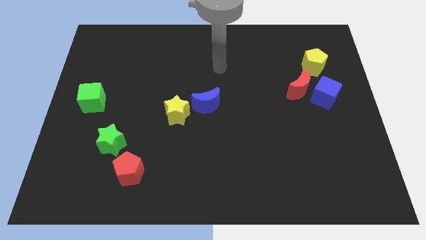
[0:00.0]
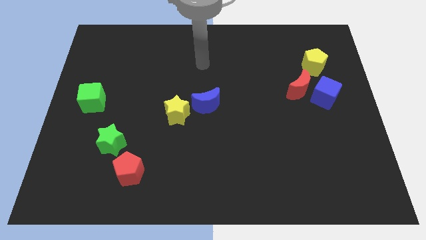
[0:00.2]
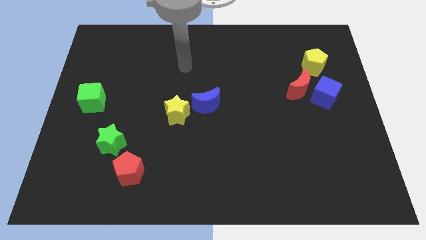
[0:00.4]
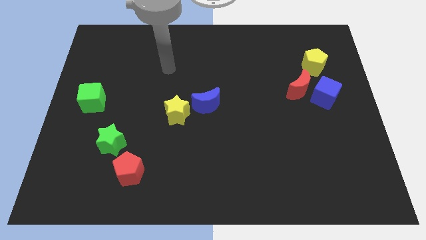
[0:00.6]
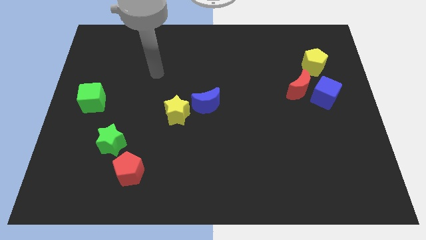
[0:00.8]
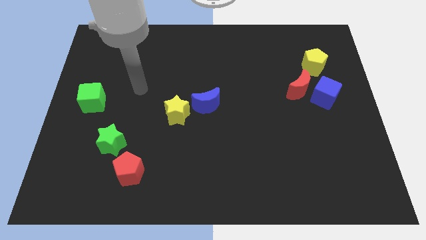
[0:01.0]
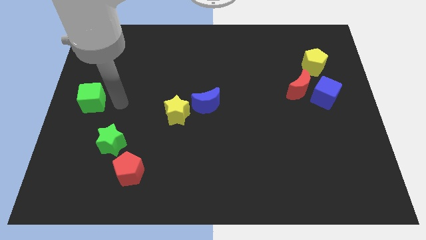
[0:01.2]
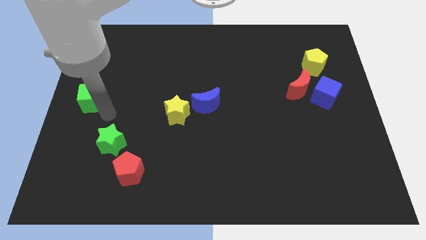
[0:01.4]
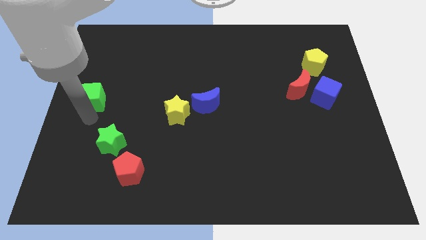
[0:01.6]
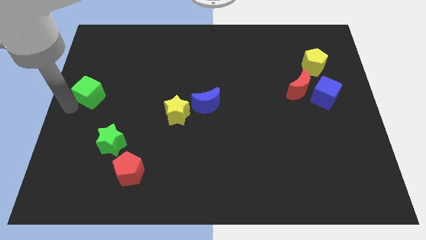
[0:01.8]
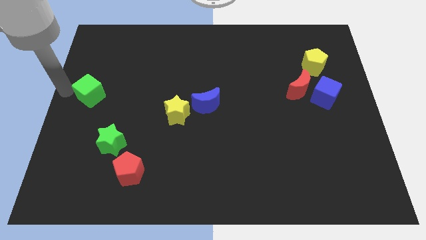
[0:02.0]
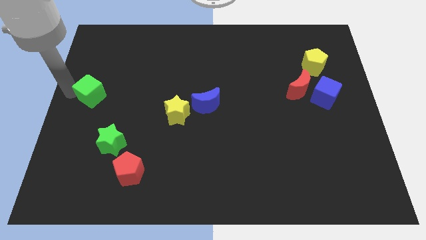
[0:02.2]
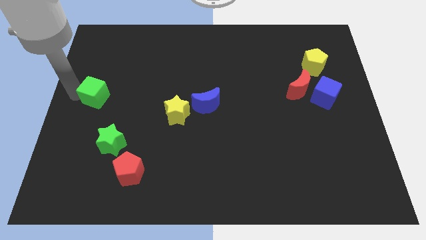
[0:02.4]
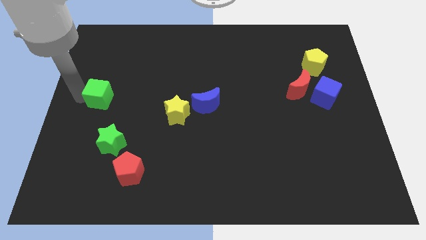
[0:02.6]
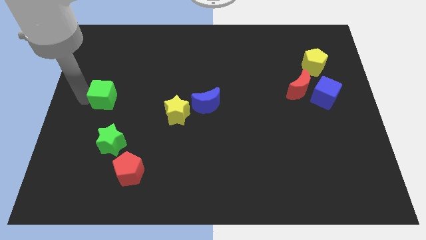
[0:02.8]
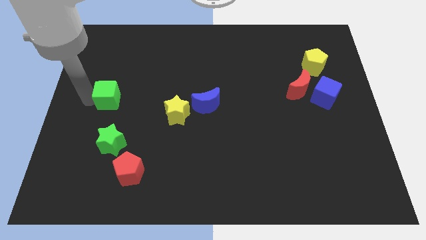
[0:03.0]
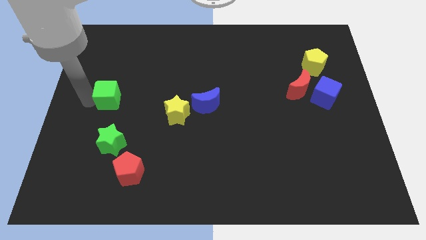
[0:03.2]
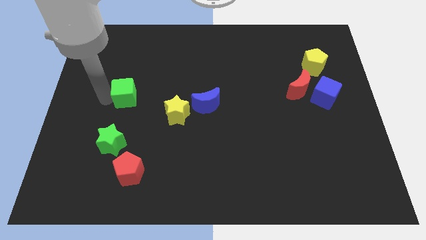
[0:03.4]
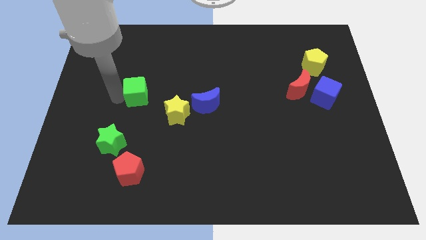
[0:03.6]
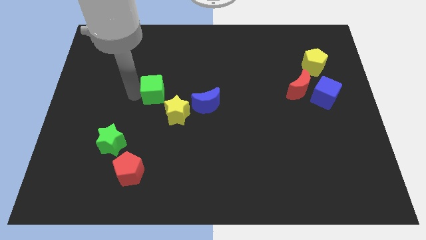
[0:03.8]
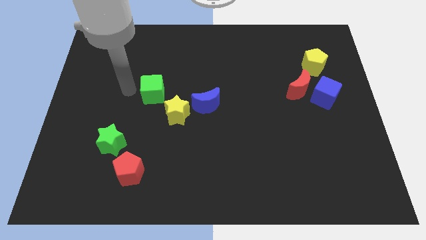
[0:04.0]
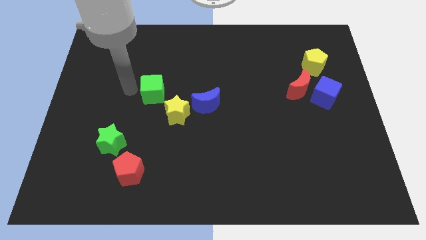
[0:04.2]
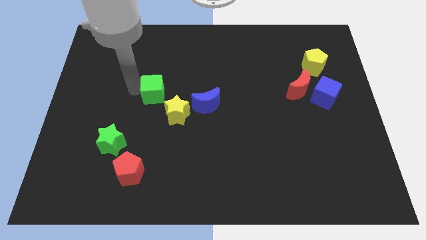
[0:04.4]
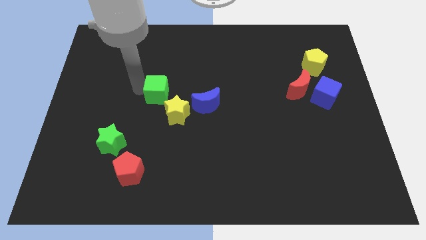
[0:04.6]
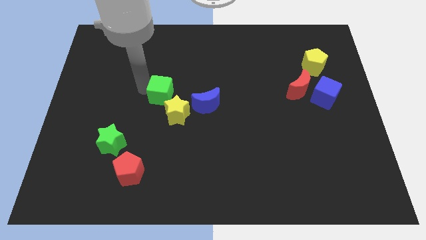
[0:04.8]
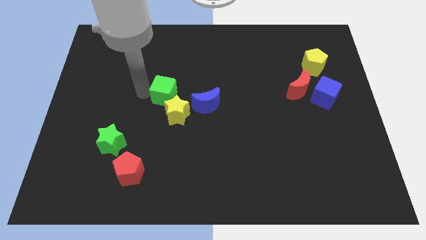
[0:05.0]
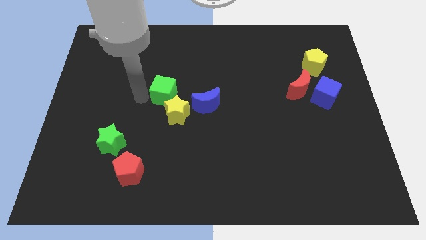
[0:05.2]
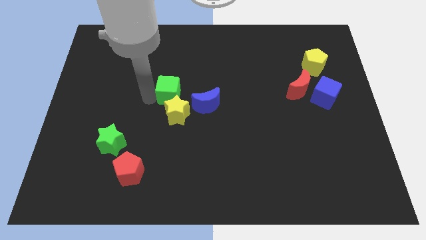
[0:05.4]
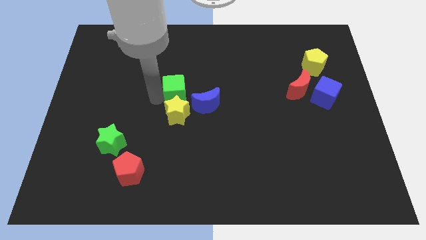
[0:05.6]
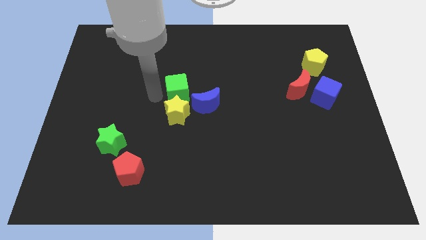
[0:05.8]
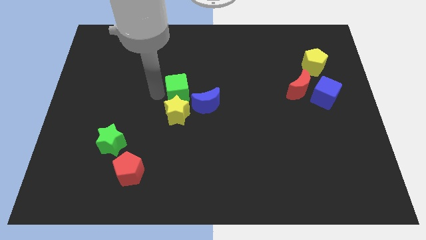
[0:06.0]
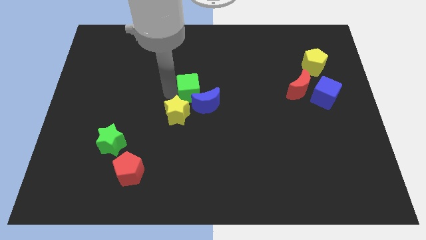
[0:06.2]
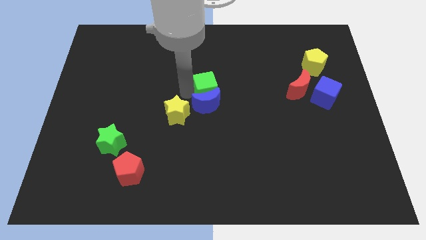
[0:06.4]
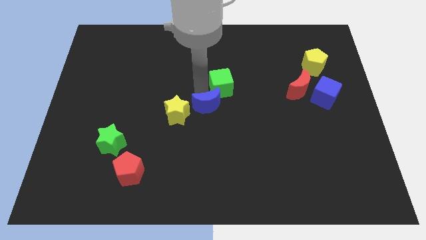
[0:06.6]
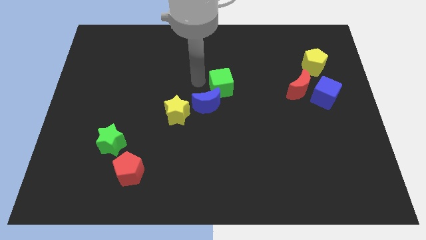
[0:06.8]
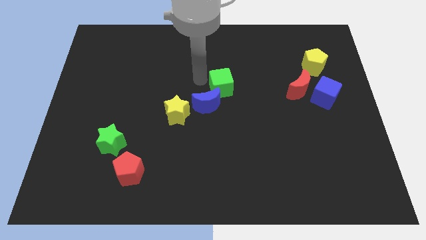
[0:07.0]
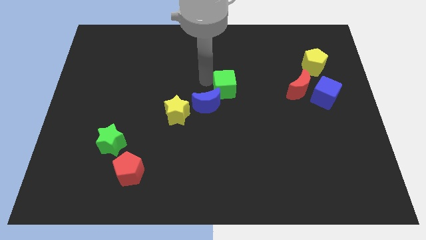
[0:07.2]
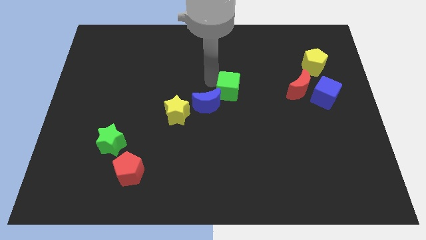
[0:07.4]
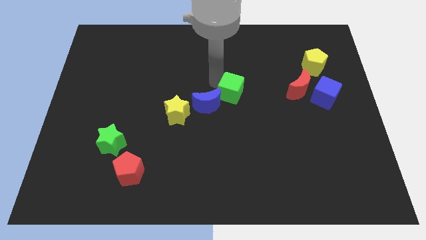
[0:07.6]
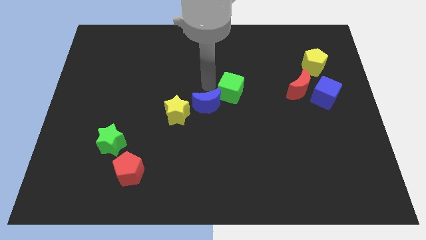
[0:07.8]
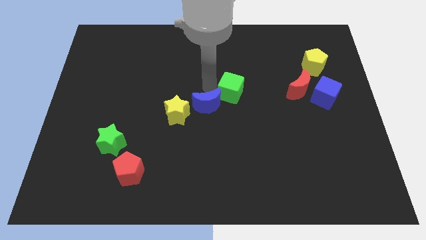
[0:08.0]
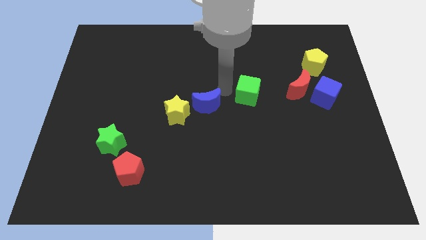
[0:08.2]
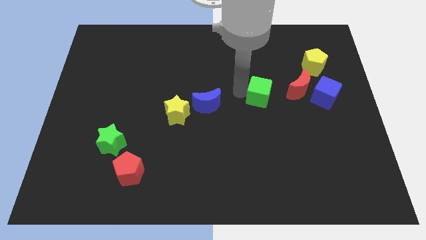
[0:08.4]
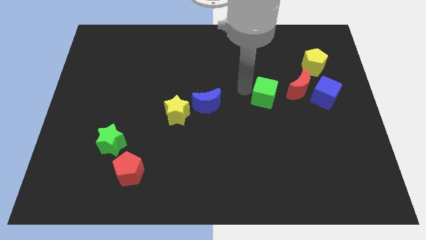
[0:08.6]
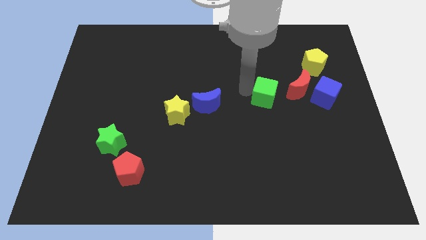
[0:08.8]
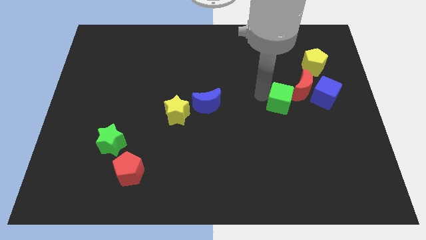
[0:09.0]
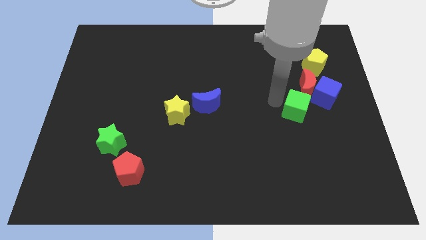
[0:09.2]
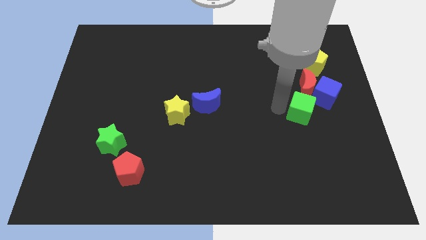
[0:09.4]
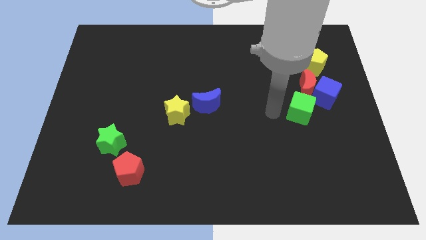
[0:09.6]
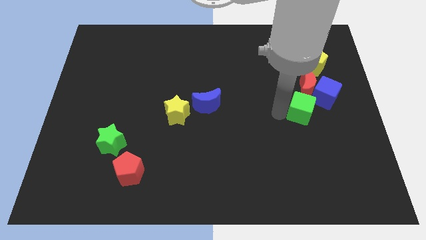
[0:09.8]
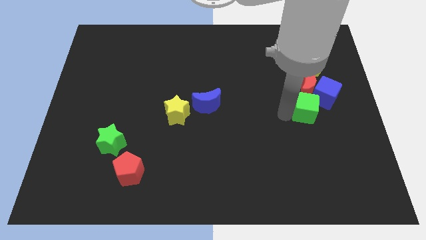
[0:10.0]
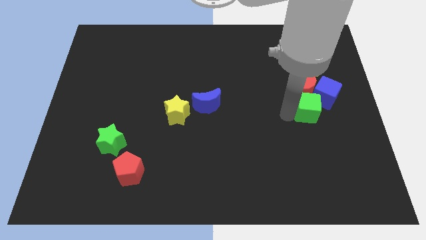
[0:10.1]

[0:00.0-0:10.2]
slide the green cube to the bottom of the yellow pentagon

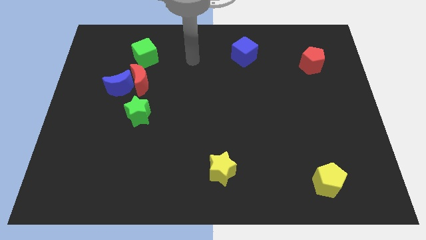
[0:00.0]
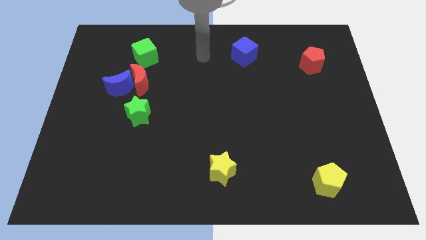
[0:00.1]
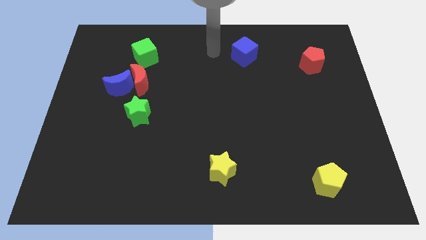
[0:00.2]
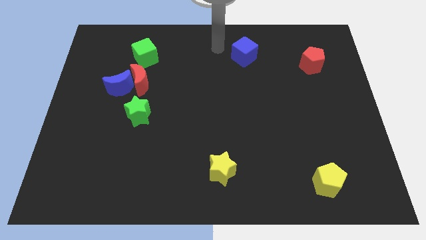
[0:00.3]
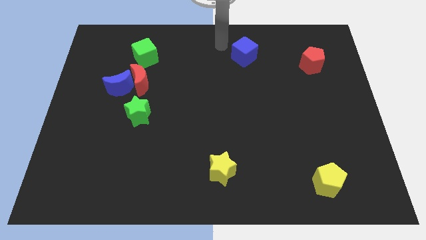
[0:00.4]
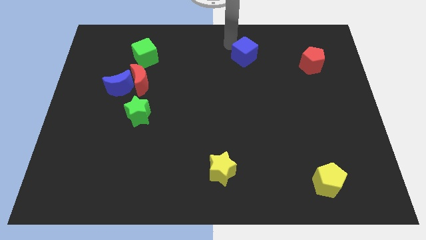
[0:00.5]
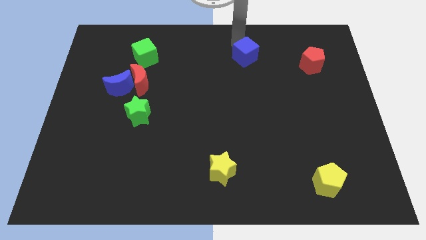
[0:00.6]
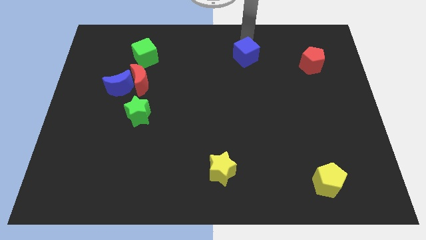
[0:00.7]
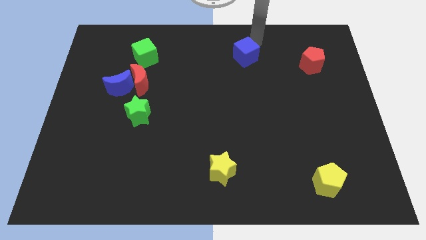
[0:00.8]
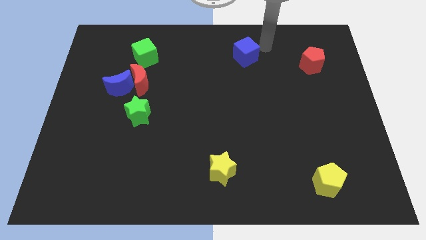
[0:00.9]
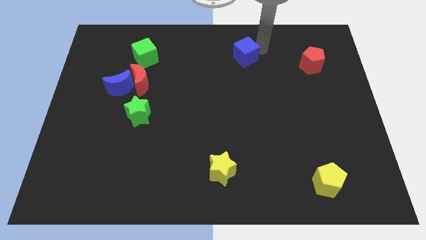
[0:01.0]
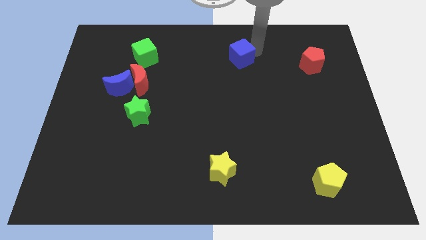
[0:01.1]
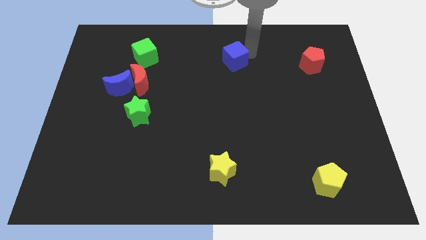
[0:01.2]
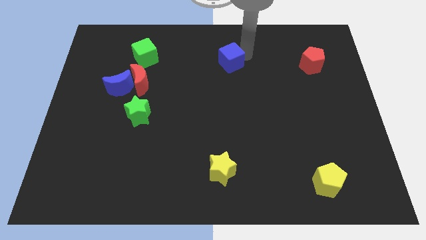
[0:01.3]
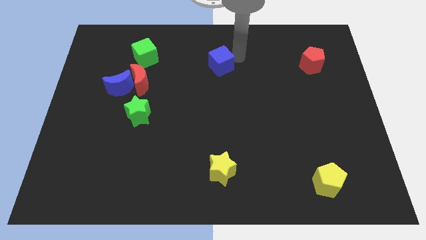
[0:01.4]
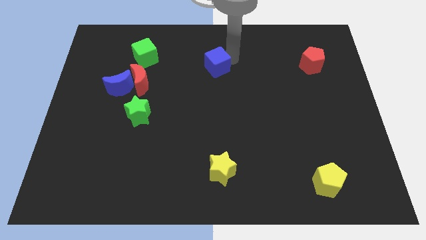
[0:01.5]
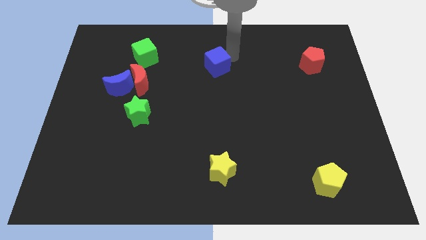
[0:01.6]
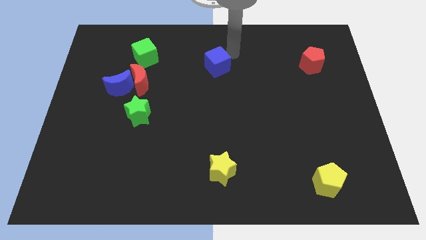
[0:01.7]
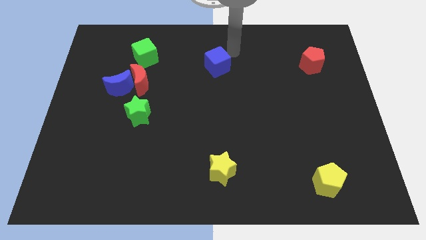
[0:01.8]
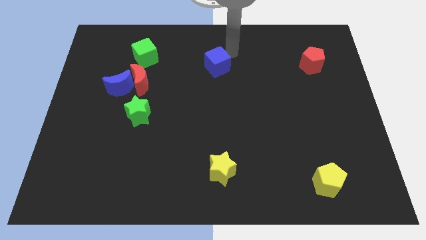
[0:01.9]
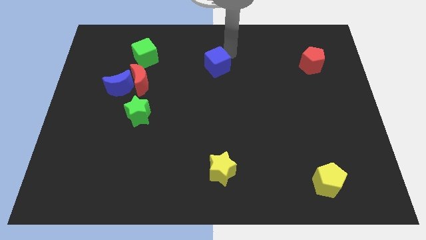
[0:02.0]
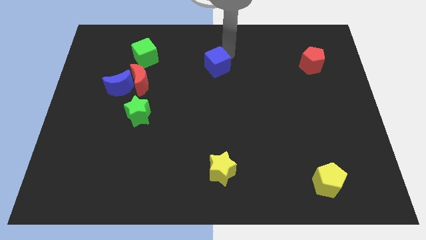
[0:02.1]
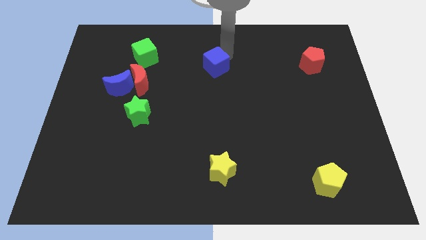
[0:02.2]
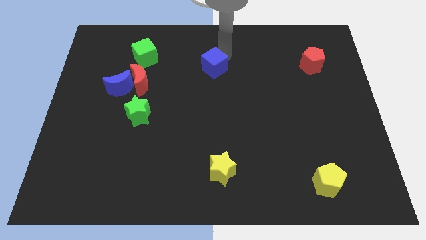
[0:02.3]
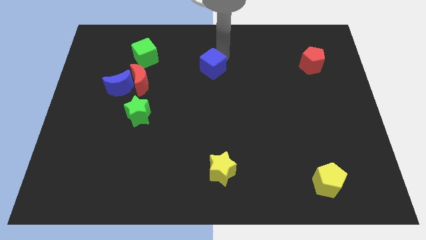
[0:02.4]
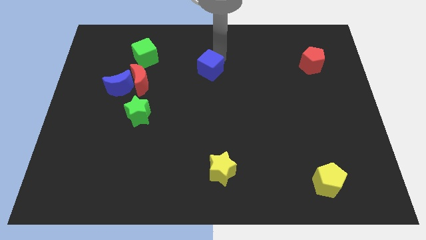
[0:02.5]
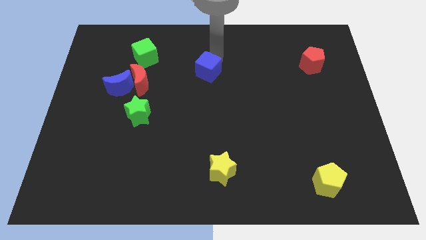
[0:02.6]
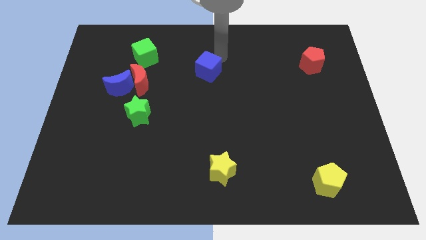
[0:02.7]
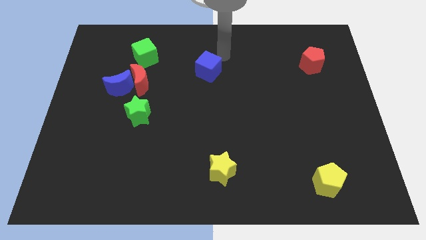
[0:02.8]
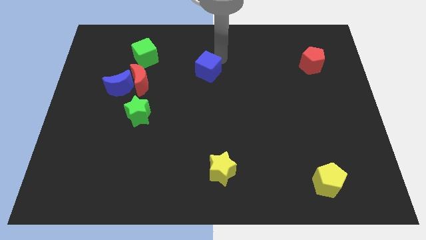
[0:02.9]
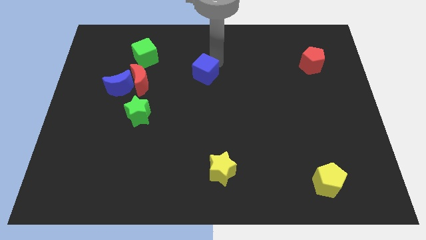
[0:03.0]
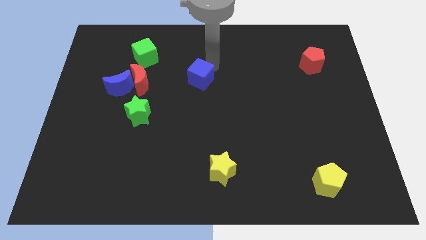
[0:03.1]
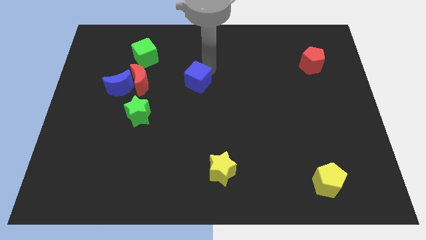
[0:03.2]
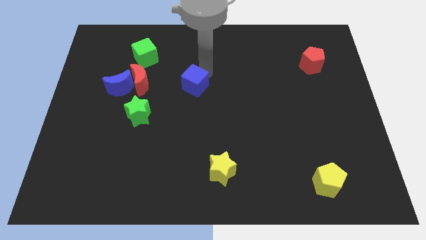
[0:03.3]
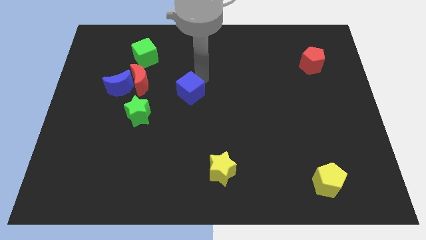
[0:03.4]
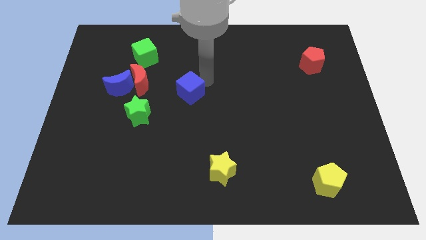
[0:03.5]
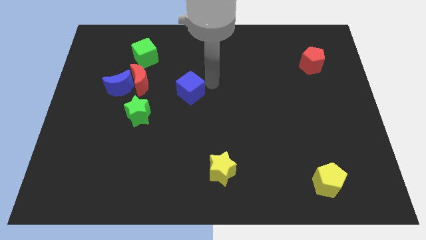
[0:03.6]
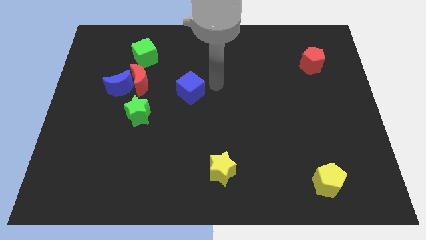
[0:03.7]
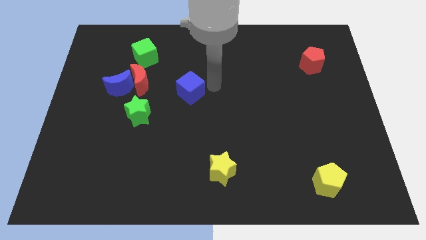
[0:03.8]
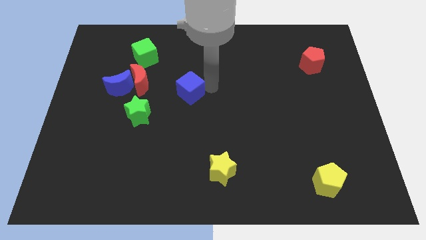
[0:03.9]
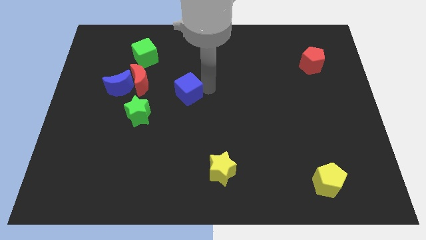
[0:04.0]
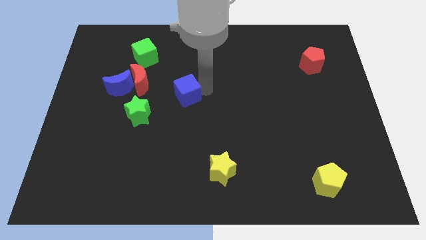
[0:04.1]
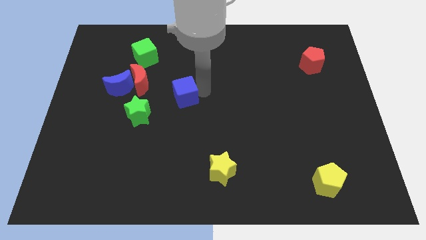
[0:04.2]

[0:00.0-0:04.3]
put the blue cube diagonally up and to the right of the green star
